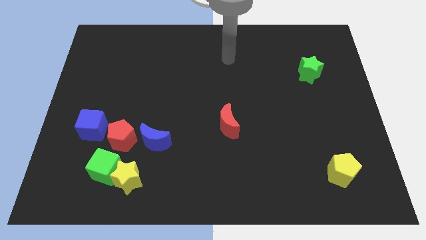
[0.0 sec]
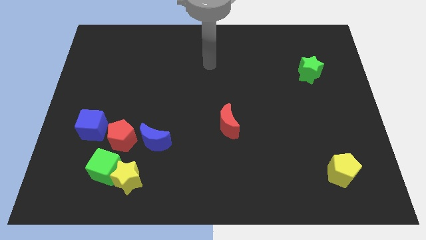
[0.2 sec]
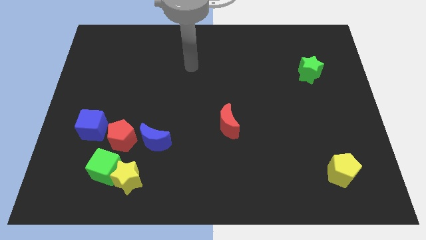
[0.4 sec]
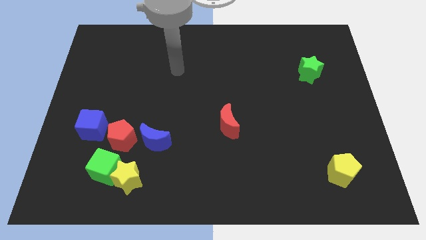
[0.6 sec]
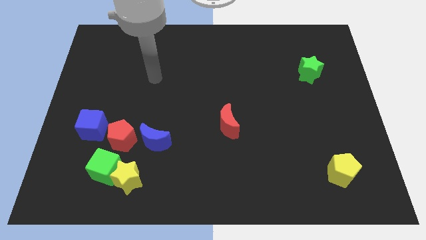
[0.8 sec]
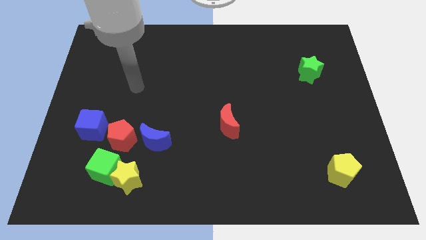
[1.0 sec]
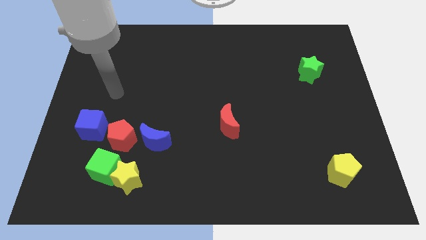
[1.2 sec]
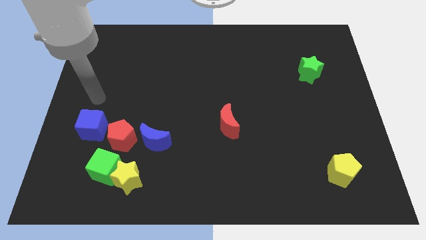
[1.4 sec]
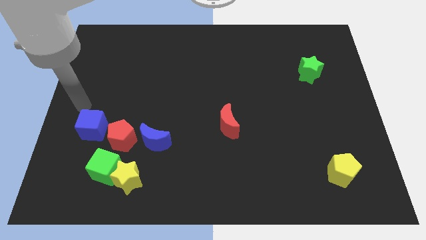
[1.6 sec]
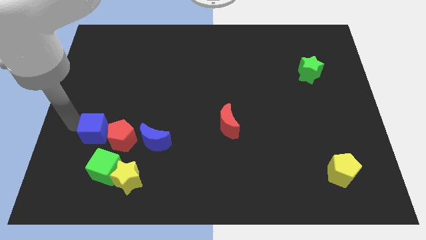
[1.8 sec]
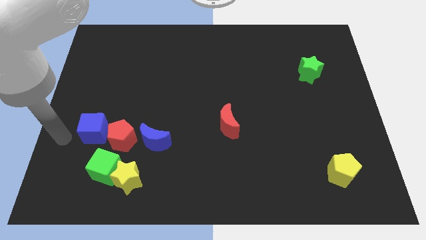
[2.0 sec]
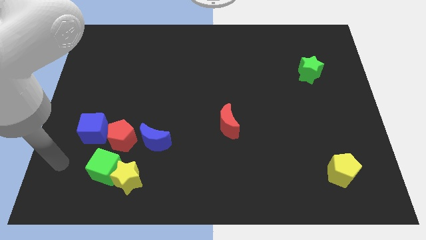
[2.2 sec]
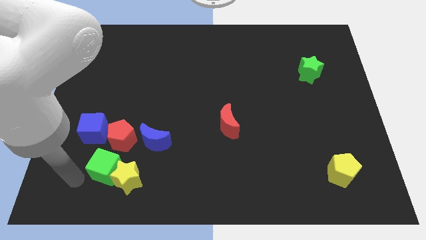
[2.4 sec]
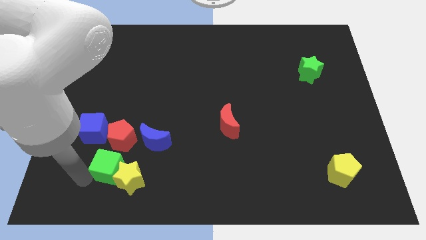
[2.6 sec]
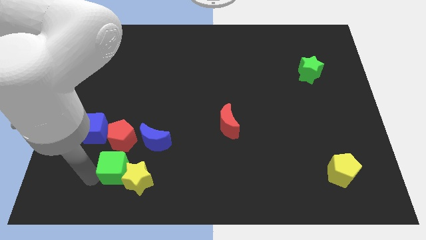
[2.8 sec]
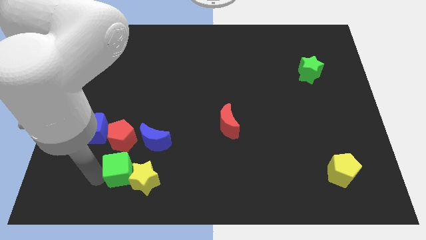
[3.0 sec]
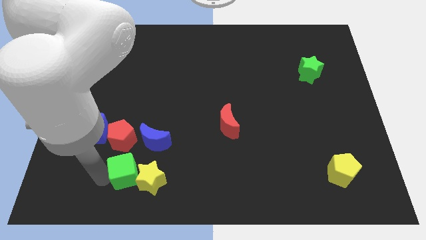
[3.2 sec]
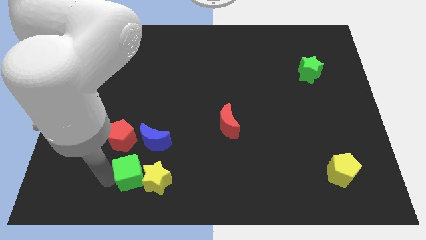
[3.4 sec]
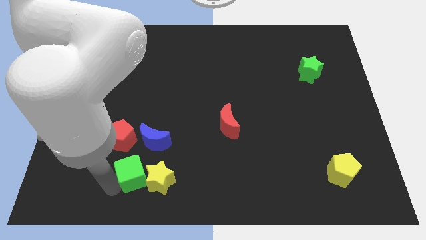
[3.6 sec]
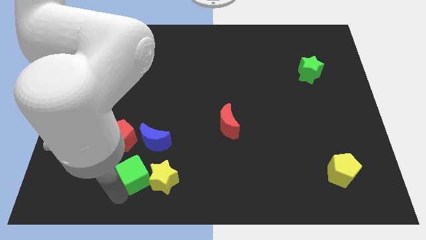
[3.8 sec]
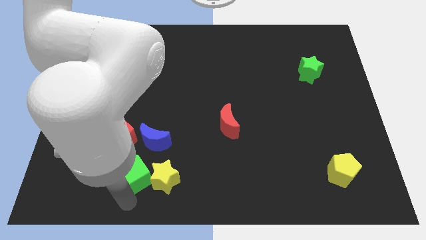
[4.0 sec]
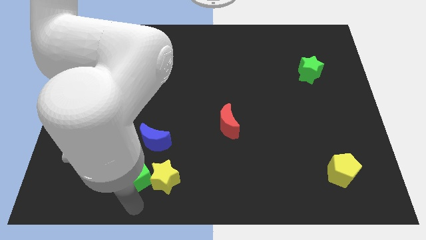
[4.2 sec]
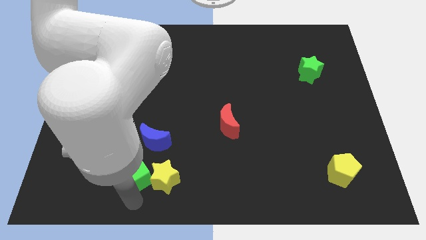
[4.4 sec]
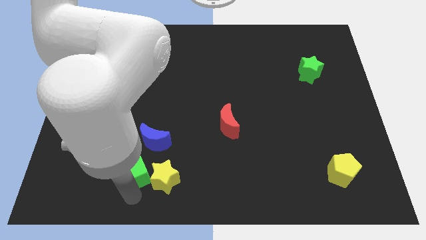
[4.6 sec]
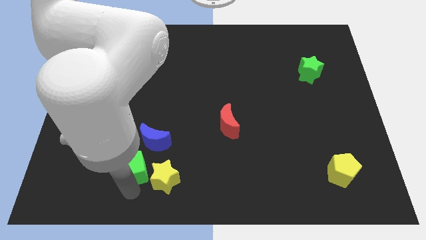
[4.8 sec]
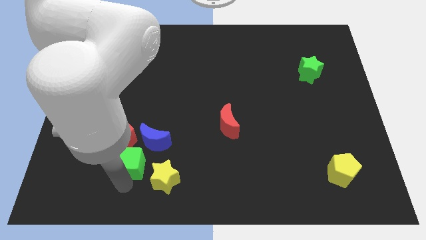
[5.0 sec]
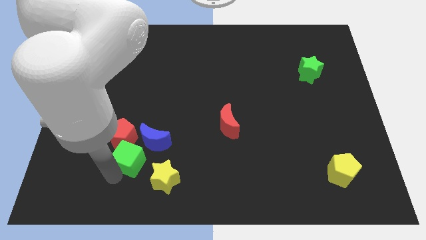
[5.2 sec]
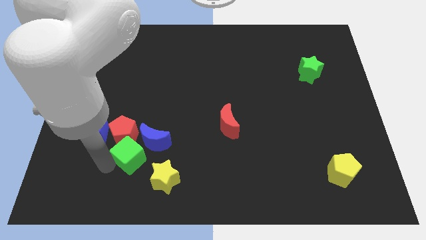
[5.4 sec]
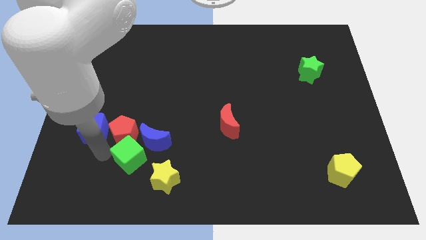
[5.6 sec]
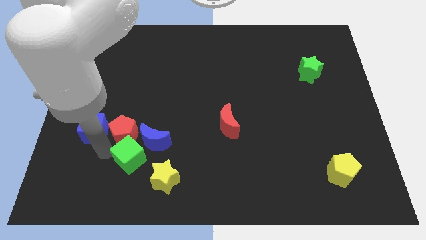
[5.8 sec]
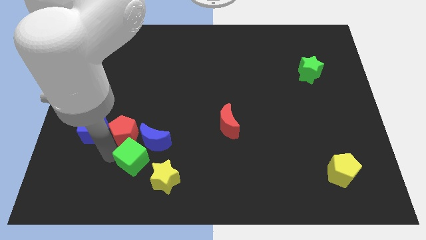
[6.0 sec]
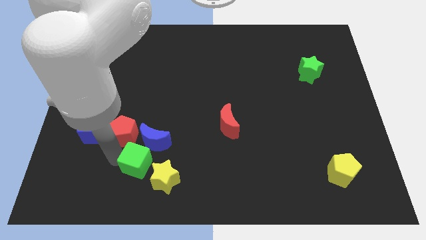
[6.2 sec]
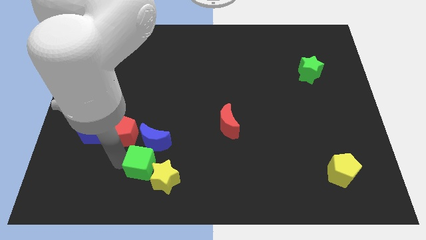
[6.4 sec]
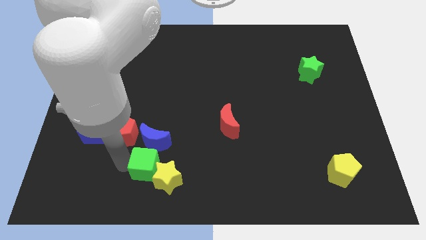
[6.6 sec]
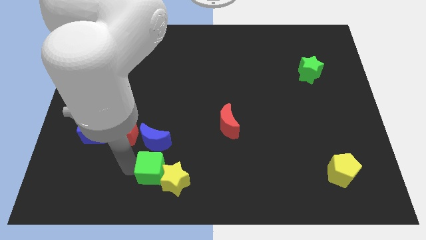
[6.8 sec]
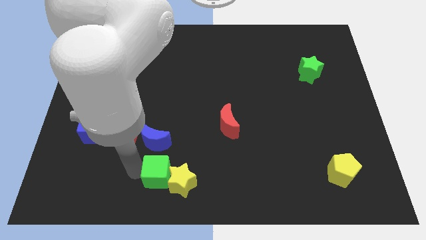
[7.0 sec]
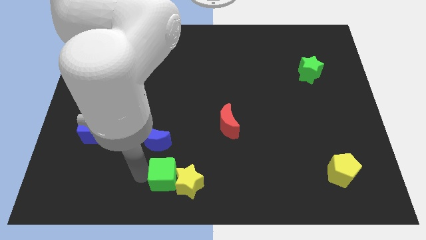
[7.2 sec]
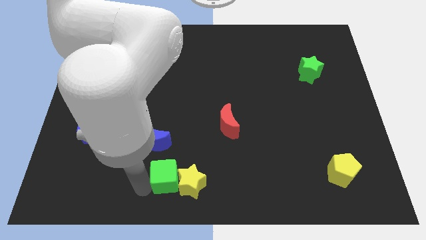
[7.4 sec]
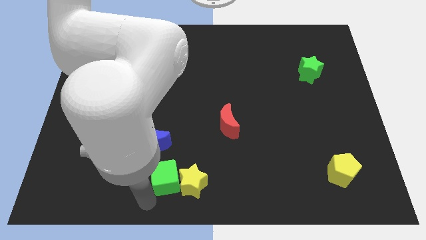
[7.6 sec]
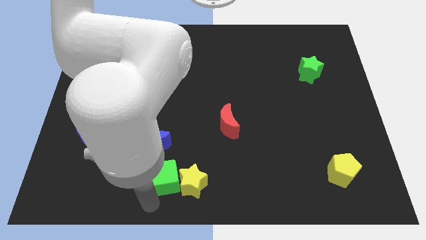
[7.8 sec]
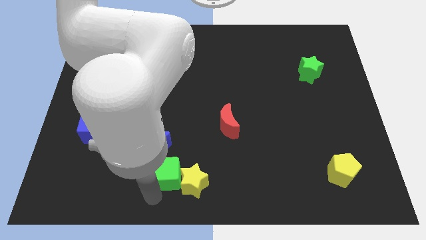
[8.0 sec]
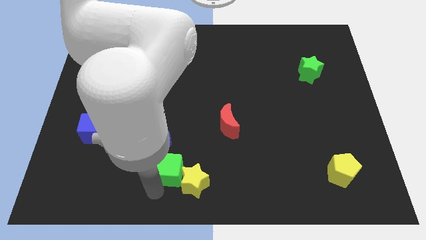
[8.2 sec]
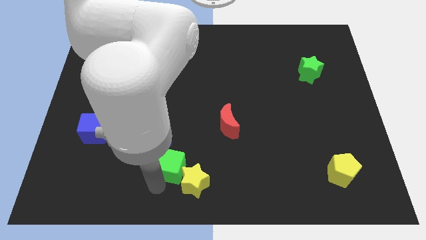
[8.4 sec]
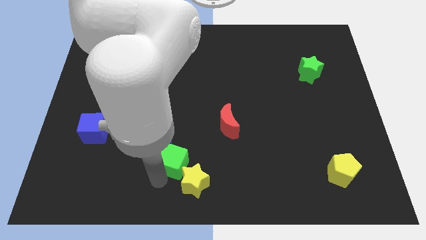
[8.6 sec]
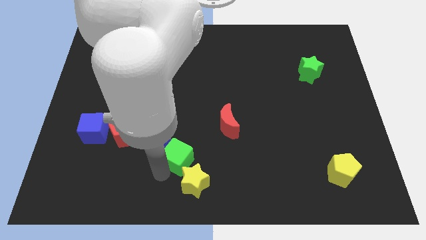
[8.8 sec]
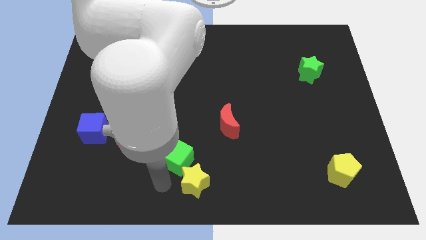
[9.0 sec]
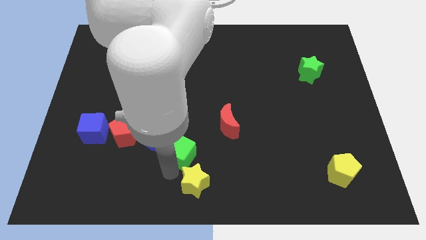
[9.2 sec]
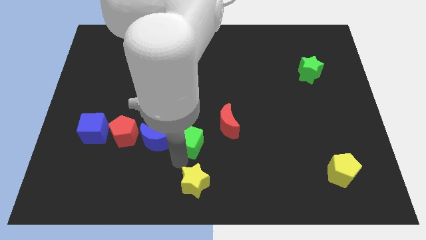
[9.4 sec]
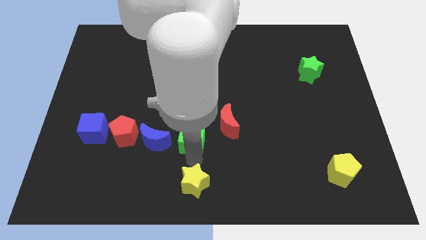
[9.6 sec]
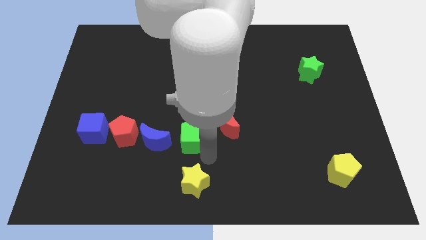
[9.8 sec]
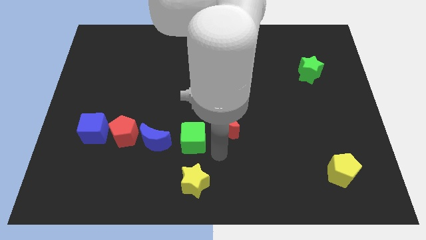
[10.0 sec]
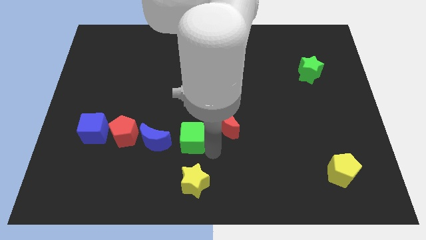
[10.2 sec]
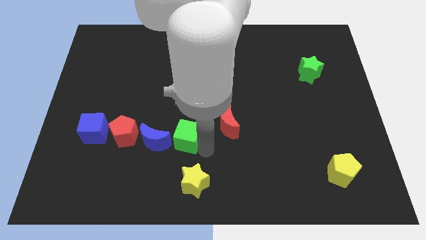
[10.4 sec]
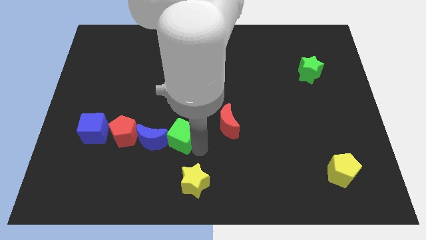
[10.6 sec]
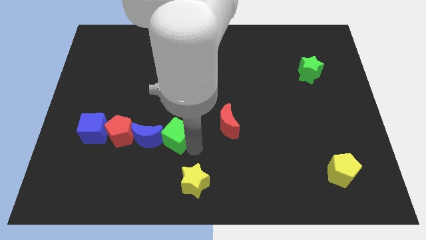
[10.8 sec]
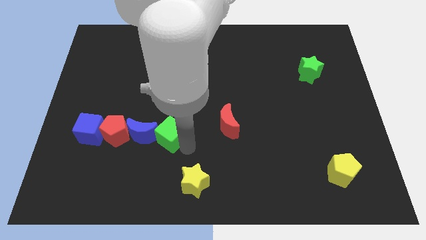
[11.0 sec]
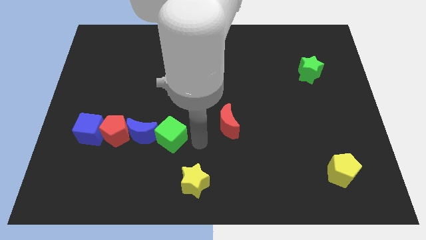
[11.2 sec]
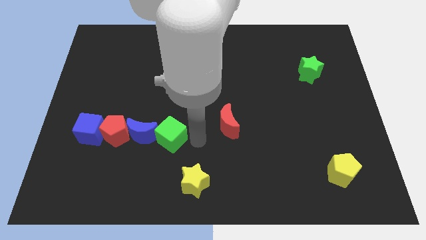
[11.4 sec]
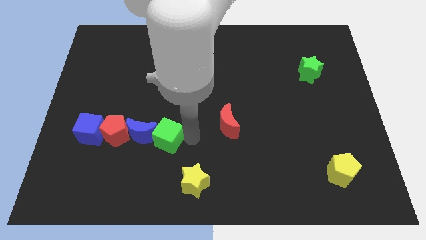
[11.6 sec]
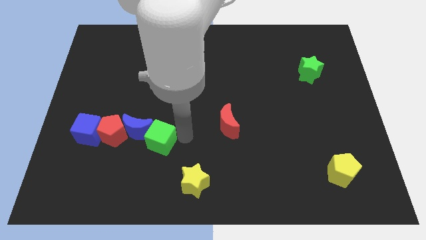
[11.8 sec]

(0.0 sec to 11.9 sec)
slide the green cube right of the blue cube

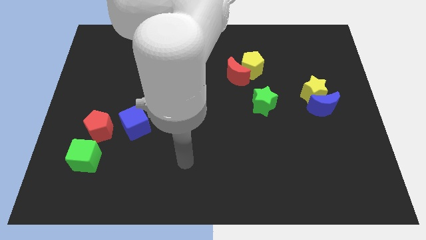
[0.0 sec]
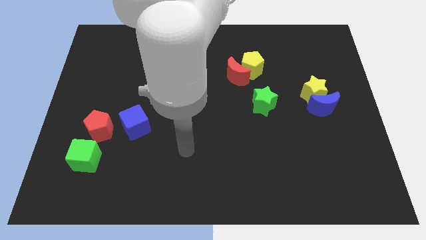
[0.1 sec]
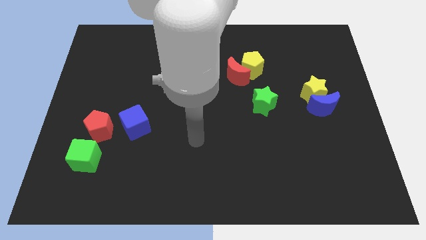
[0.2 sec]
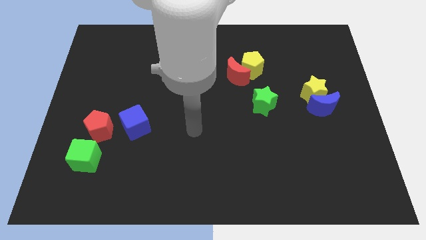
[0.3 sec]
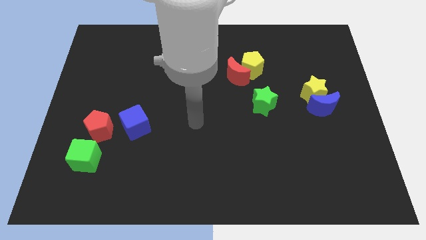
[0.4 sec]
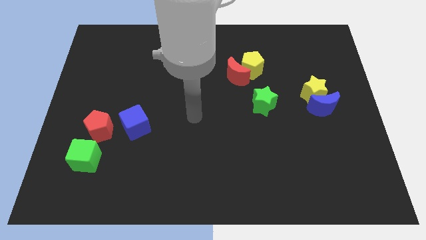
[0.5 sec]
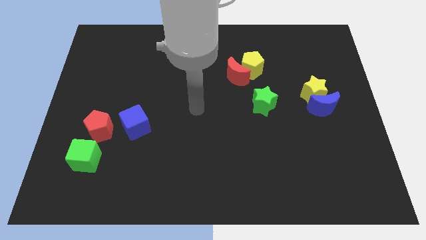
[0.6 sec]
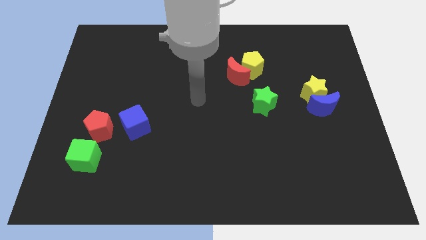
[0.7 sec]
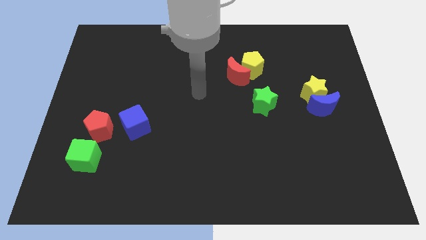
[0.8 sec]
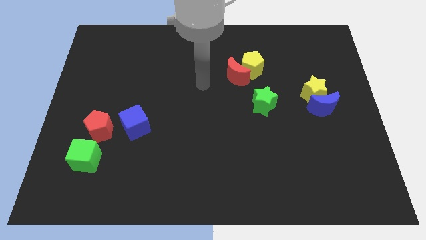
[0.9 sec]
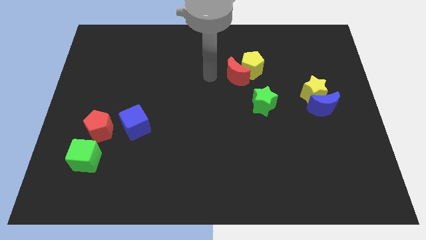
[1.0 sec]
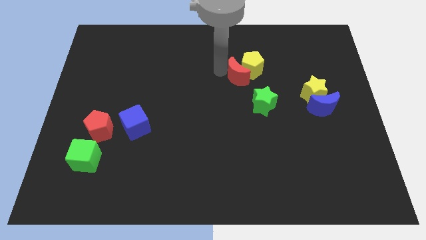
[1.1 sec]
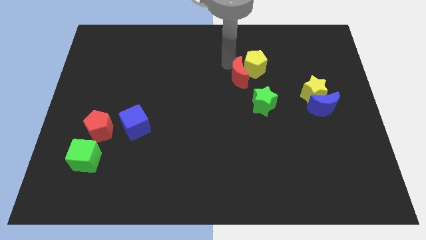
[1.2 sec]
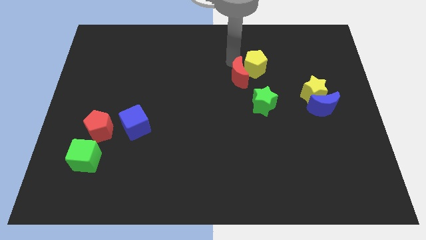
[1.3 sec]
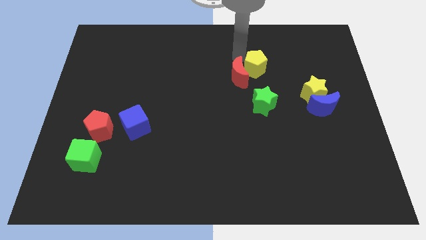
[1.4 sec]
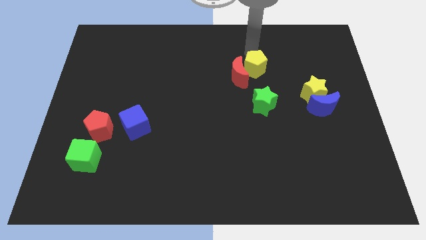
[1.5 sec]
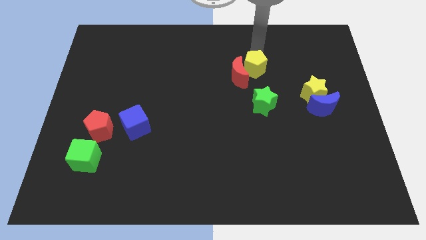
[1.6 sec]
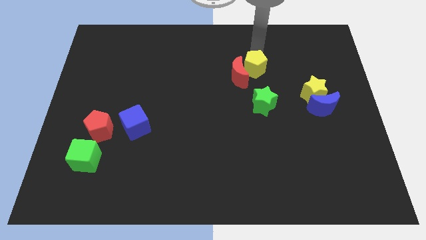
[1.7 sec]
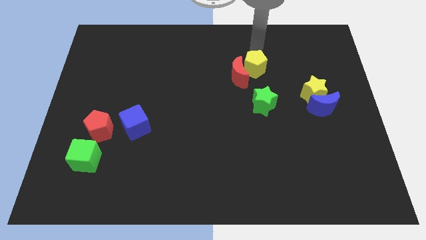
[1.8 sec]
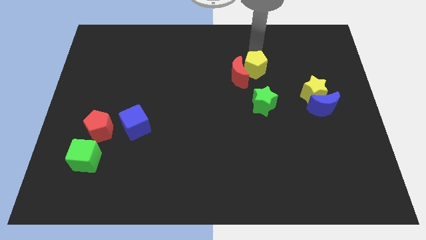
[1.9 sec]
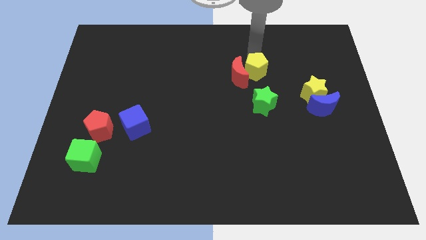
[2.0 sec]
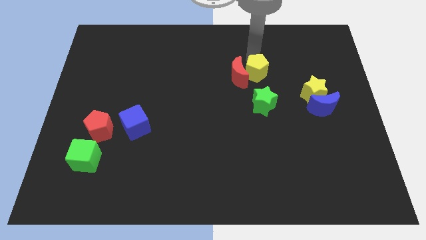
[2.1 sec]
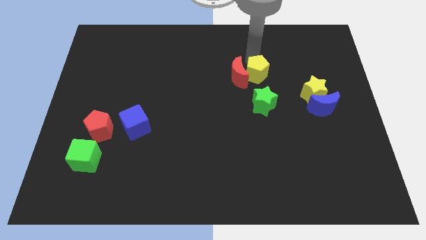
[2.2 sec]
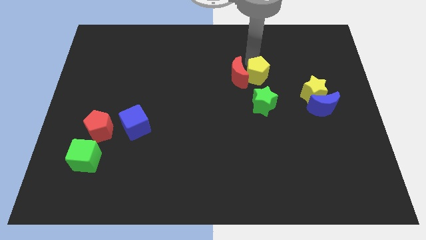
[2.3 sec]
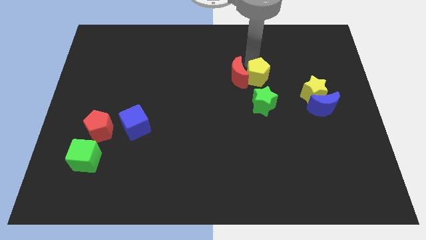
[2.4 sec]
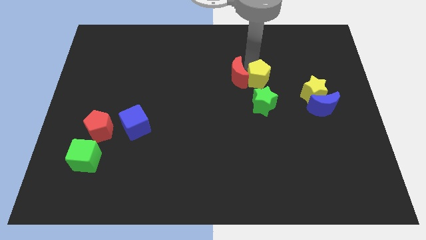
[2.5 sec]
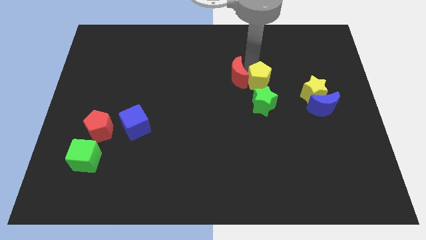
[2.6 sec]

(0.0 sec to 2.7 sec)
slide the yellow pentagon just left of the yellow star
